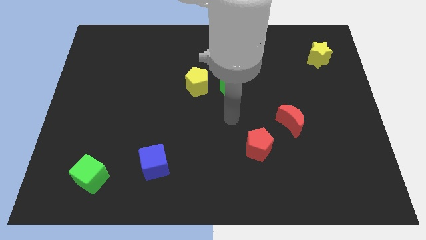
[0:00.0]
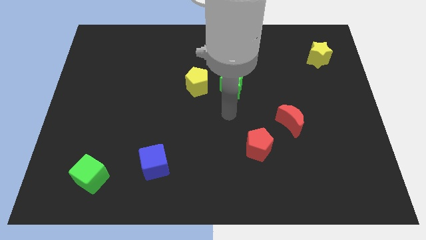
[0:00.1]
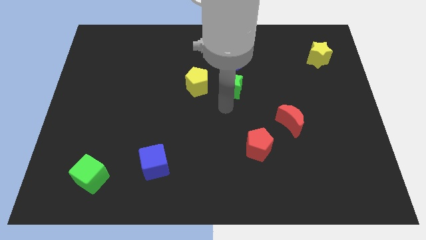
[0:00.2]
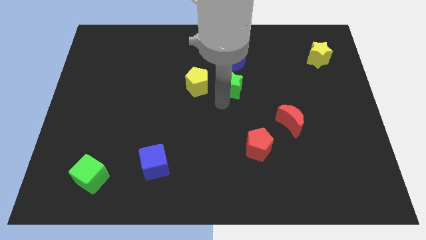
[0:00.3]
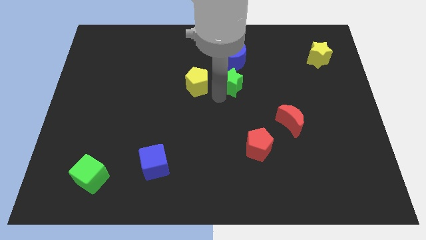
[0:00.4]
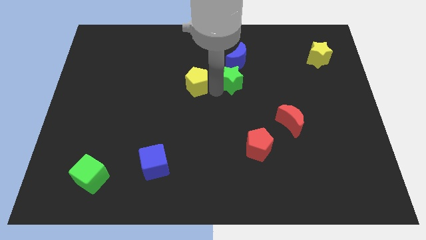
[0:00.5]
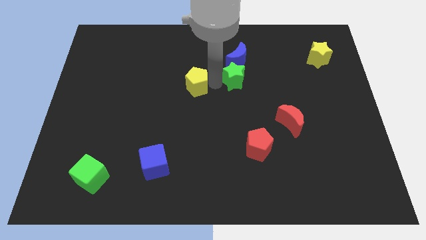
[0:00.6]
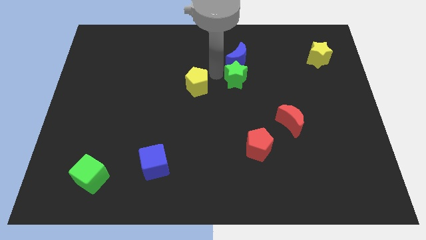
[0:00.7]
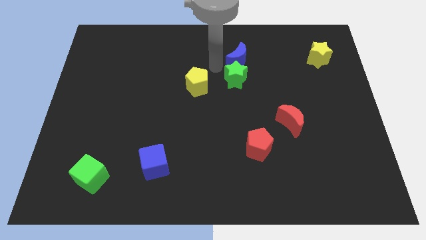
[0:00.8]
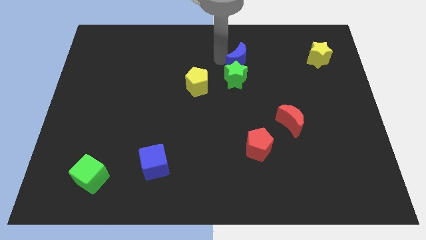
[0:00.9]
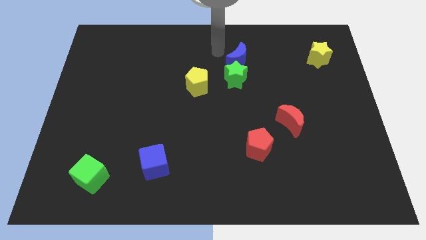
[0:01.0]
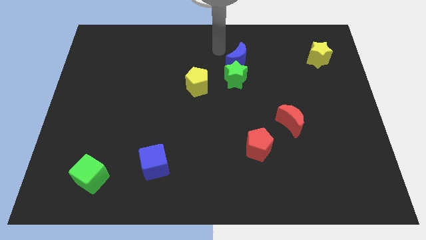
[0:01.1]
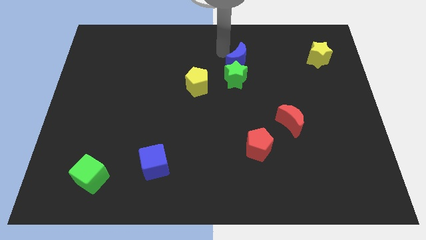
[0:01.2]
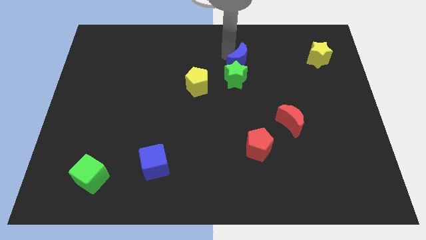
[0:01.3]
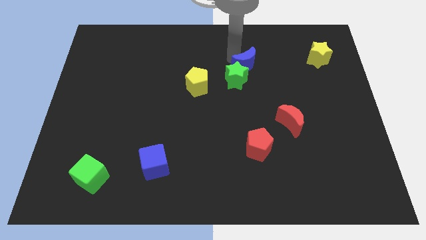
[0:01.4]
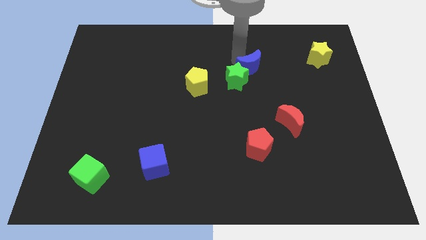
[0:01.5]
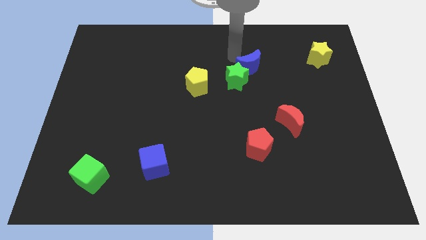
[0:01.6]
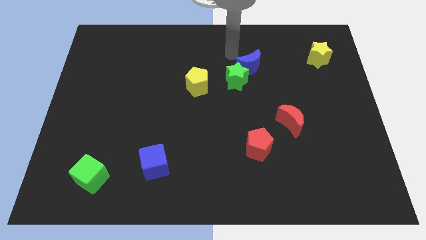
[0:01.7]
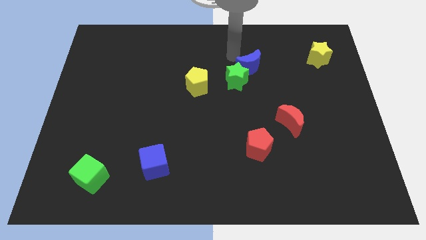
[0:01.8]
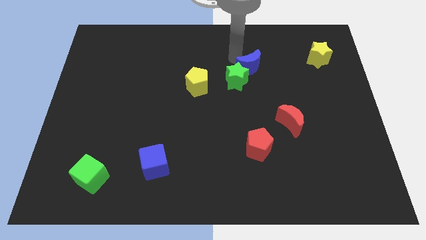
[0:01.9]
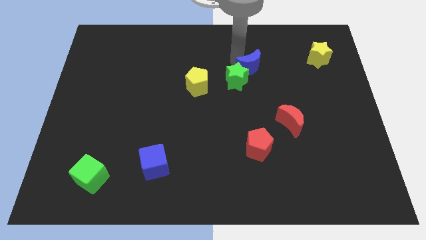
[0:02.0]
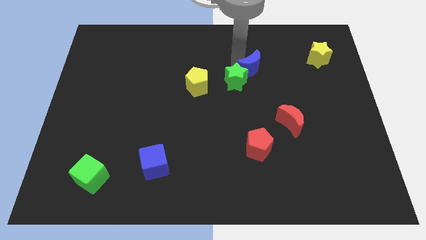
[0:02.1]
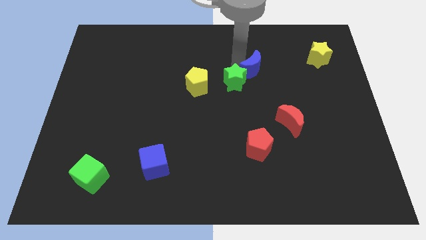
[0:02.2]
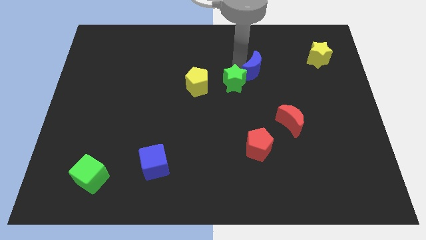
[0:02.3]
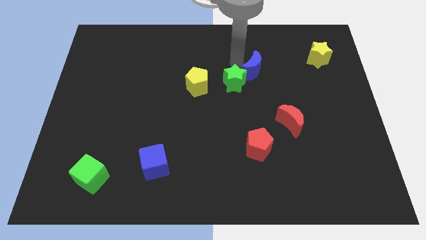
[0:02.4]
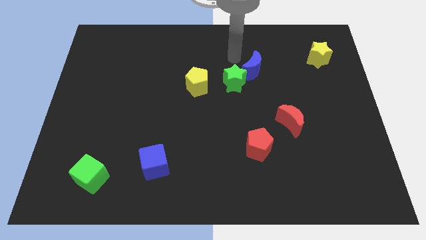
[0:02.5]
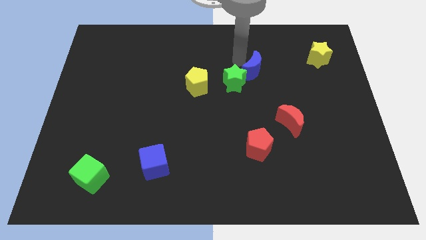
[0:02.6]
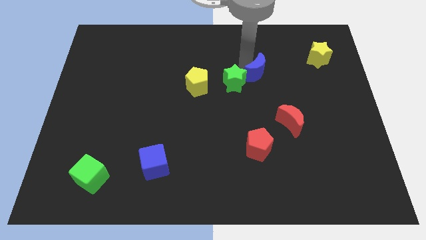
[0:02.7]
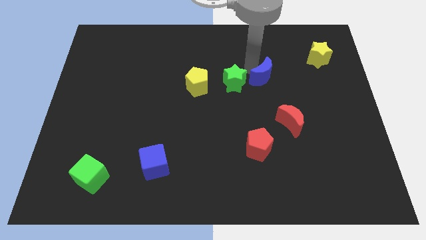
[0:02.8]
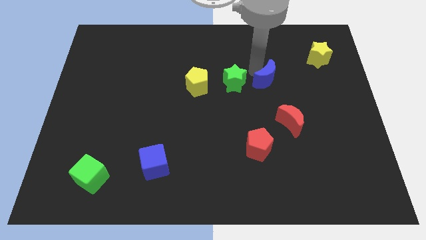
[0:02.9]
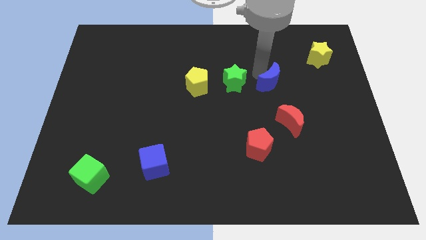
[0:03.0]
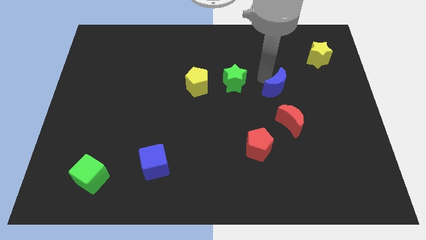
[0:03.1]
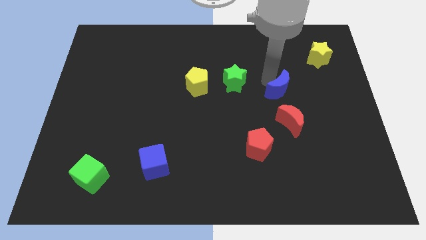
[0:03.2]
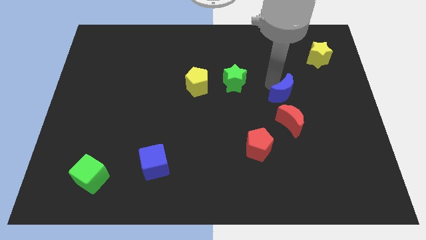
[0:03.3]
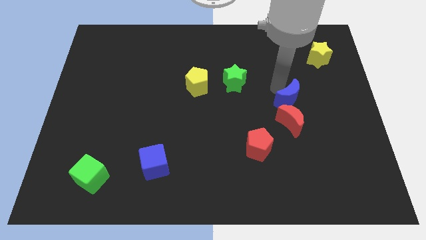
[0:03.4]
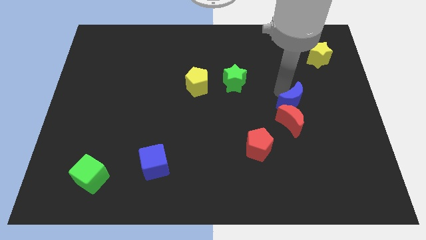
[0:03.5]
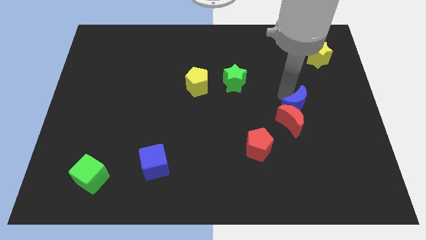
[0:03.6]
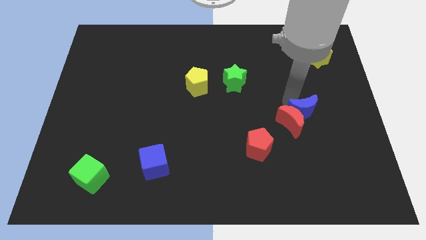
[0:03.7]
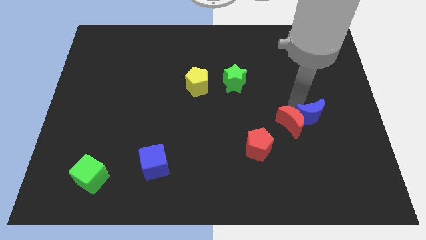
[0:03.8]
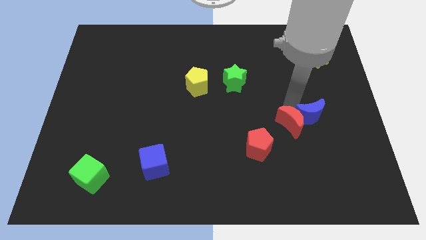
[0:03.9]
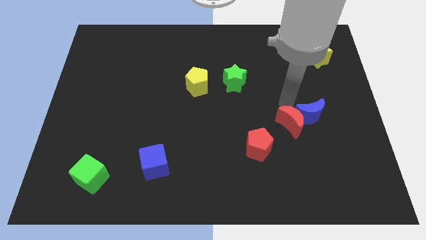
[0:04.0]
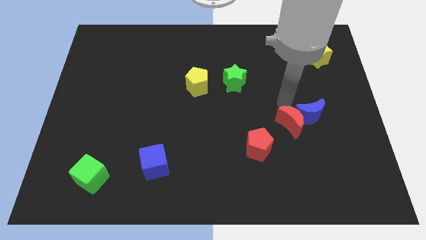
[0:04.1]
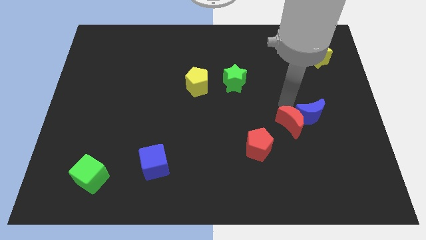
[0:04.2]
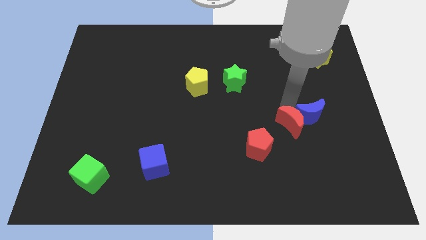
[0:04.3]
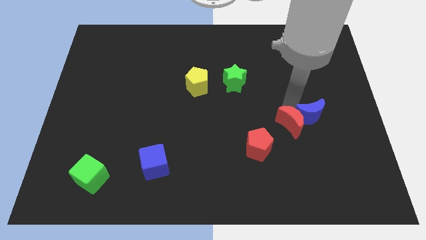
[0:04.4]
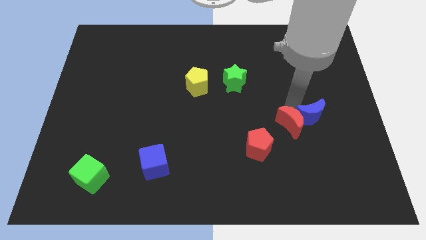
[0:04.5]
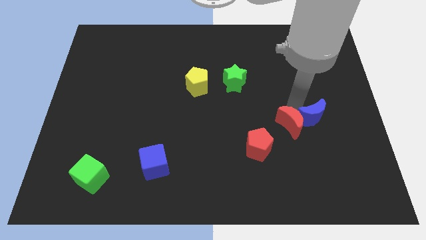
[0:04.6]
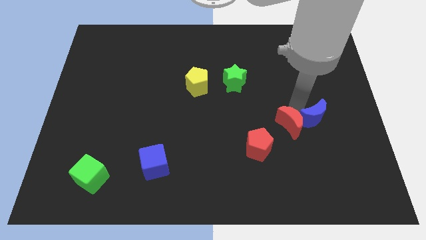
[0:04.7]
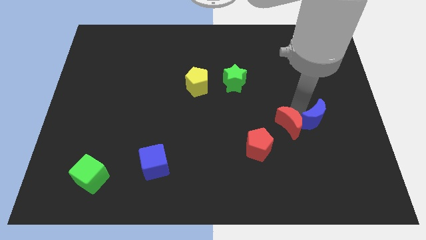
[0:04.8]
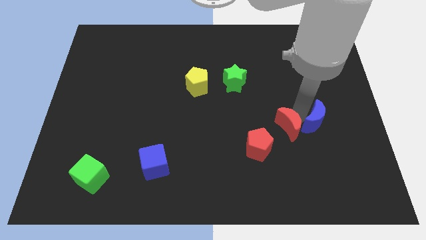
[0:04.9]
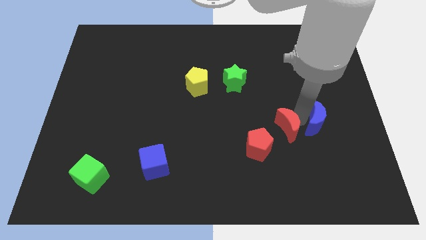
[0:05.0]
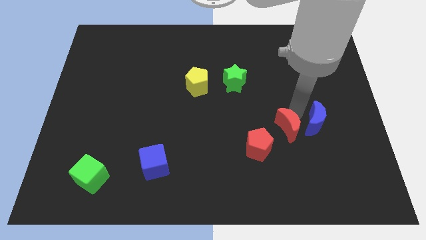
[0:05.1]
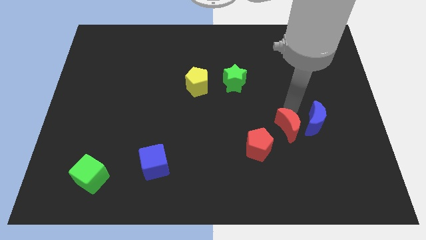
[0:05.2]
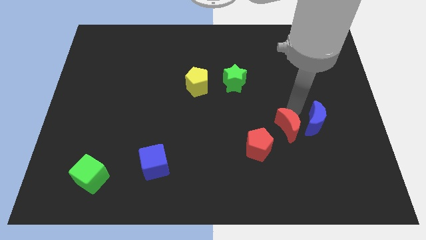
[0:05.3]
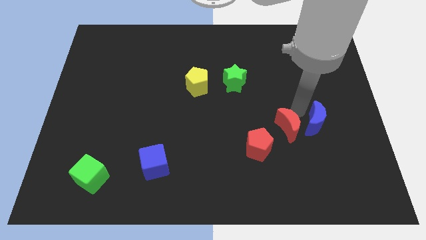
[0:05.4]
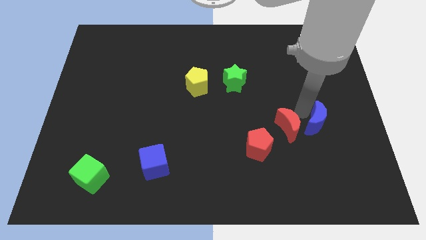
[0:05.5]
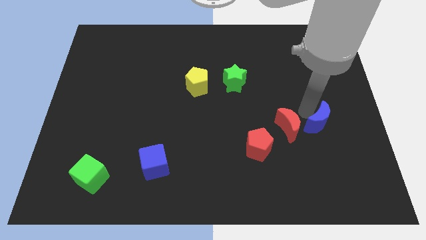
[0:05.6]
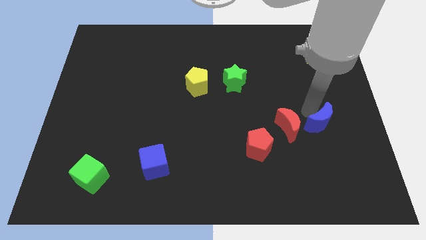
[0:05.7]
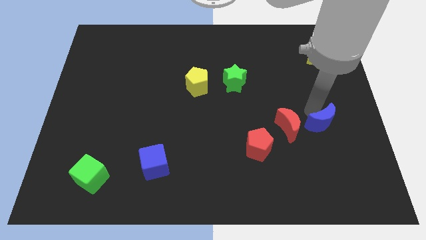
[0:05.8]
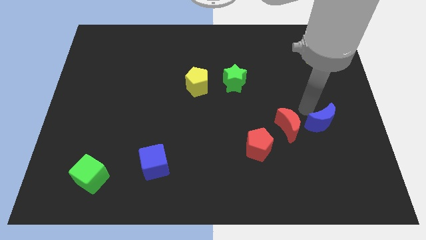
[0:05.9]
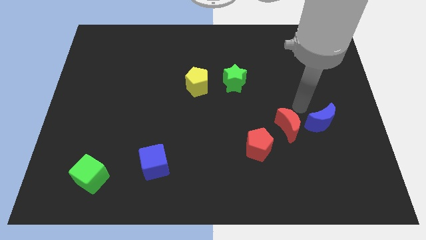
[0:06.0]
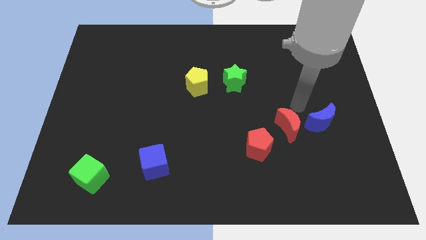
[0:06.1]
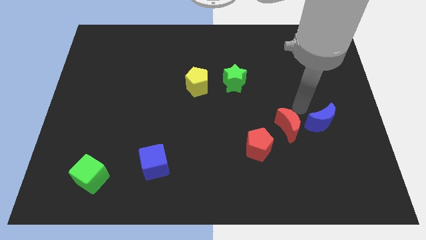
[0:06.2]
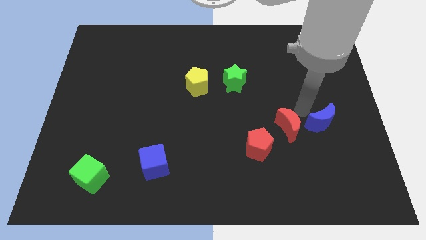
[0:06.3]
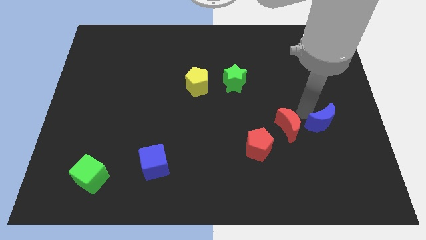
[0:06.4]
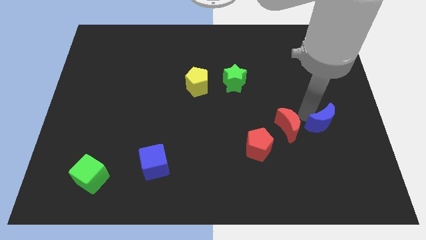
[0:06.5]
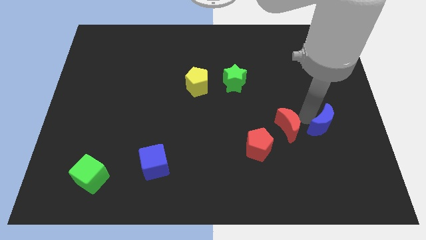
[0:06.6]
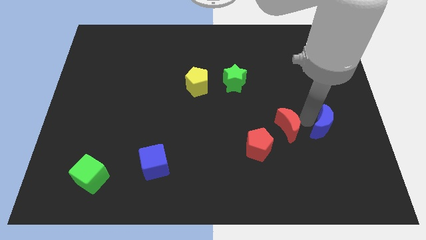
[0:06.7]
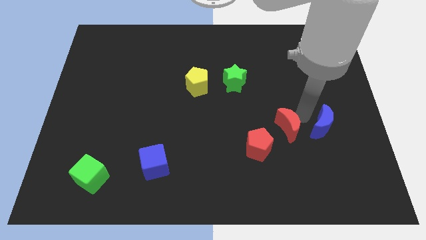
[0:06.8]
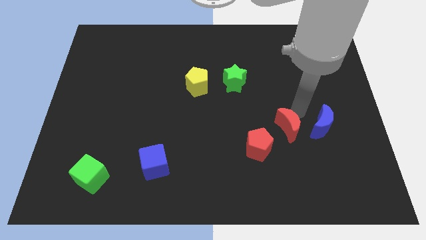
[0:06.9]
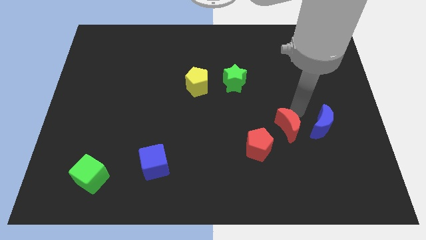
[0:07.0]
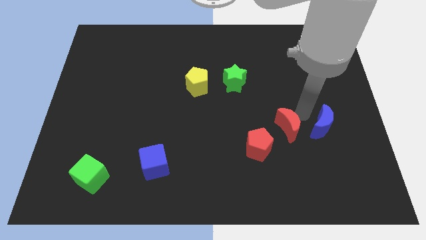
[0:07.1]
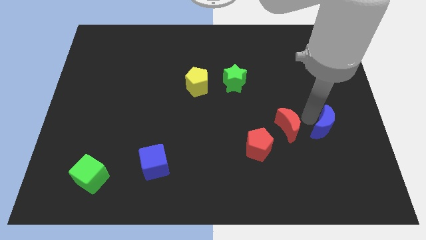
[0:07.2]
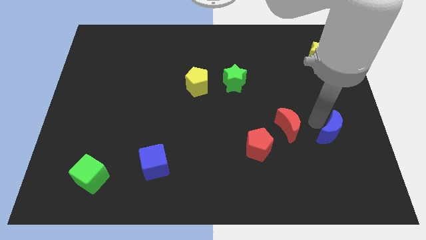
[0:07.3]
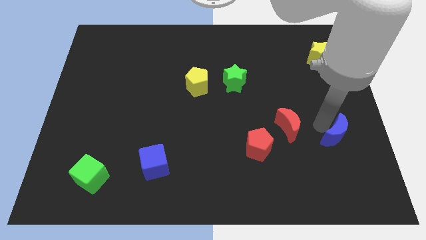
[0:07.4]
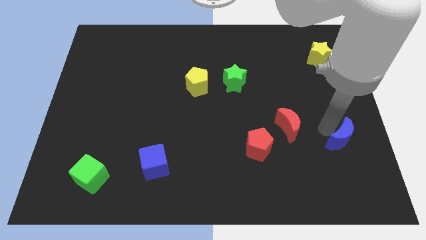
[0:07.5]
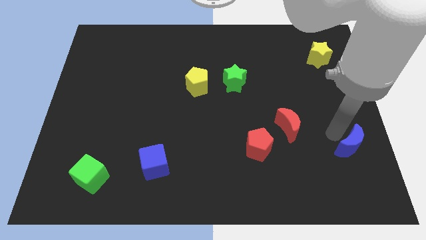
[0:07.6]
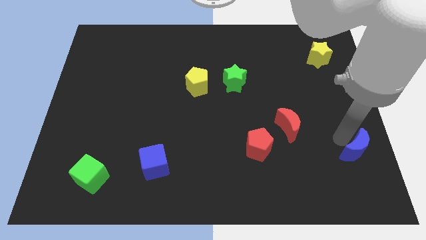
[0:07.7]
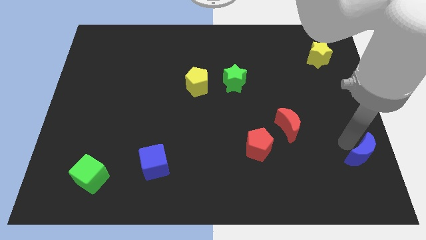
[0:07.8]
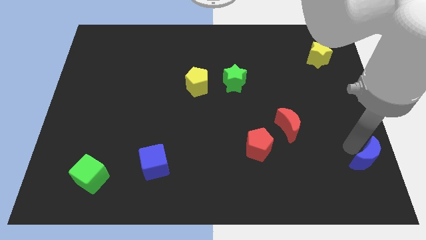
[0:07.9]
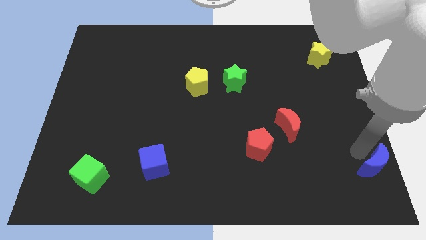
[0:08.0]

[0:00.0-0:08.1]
move the blue moon to the bottom right corner
